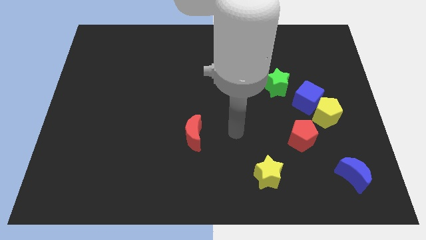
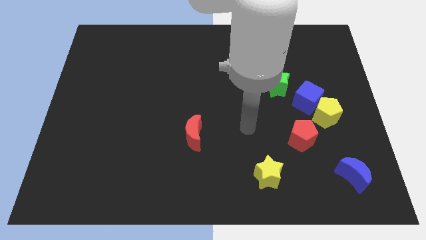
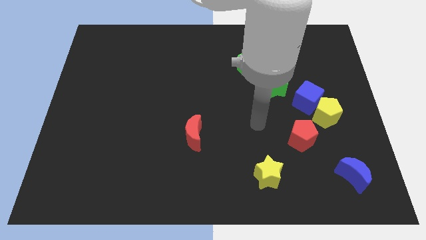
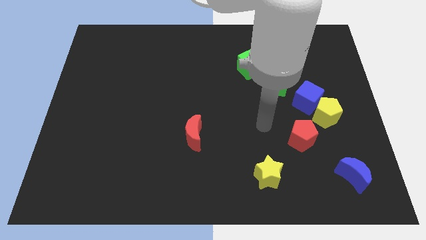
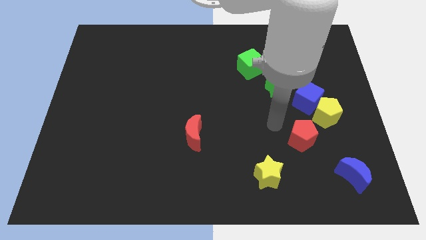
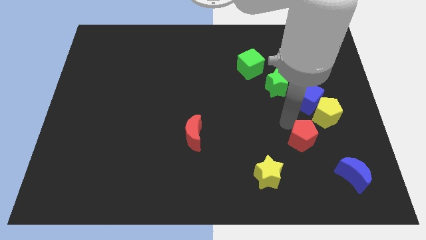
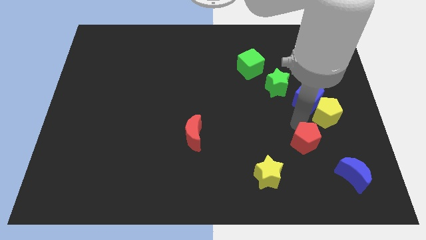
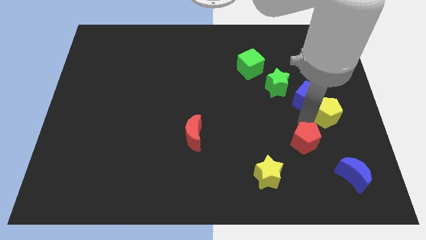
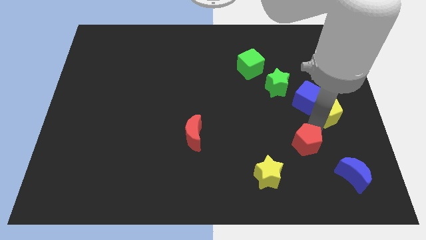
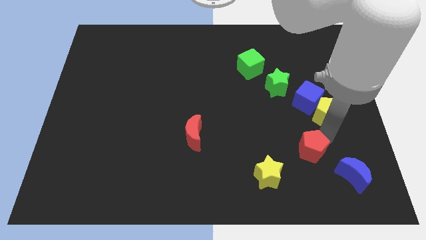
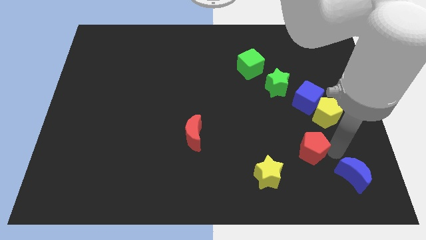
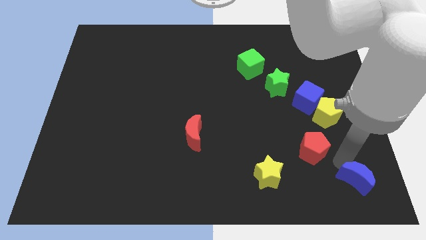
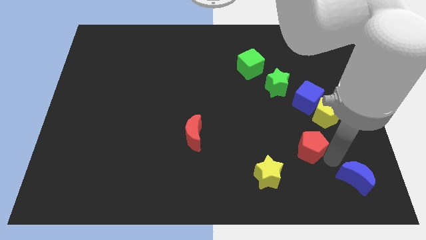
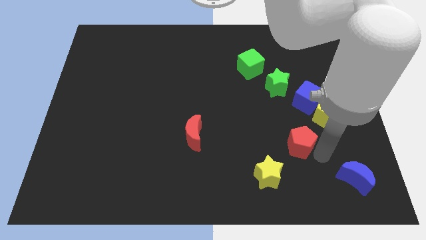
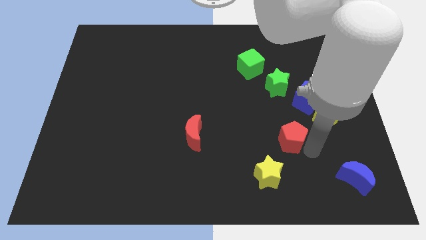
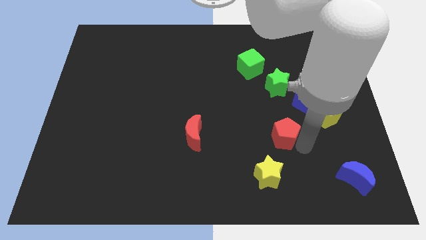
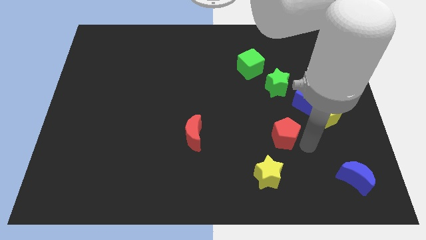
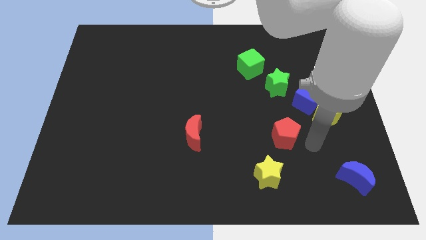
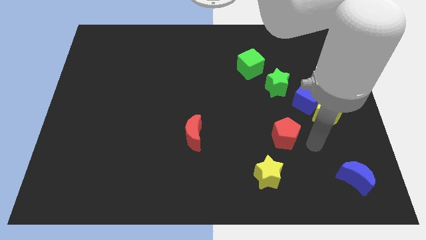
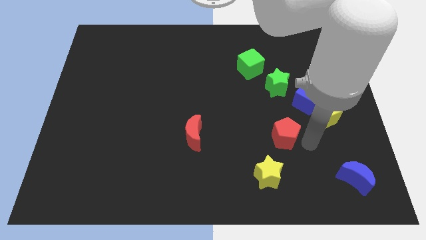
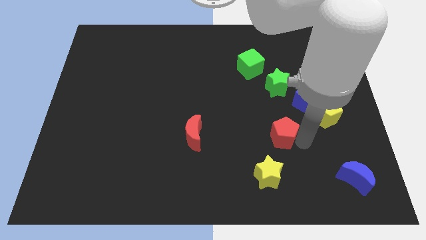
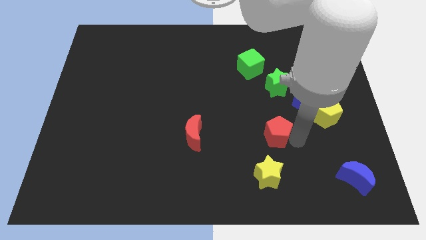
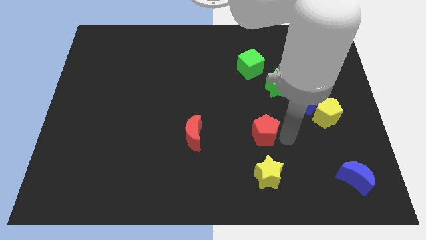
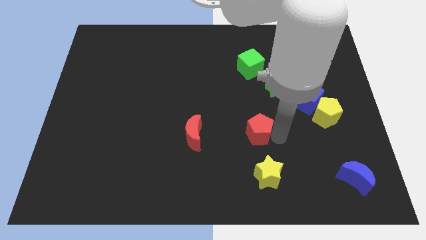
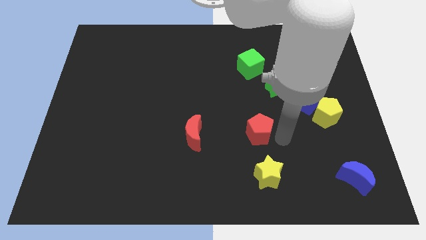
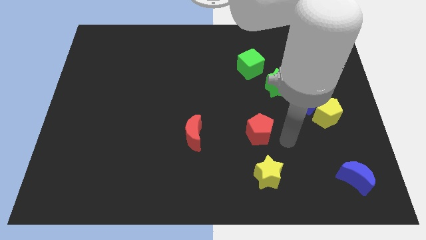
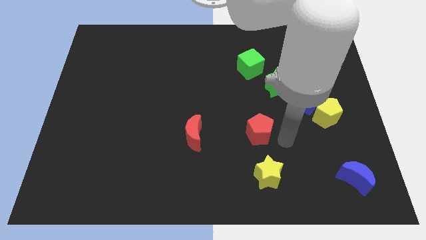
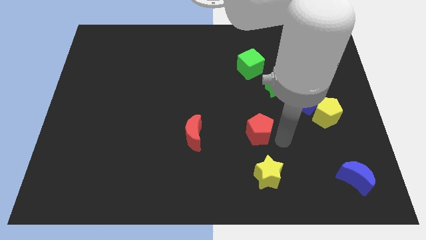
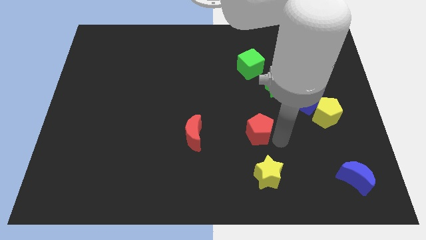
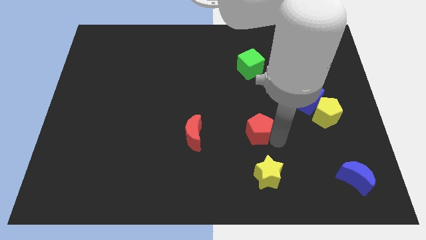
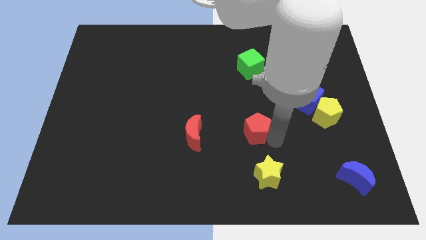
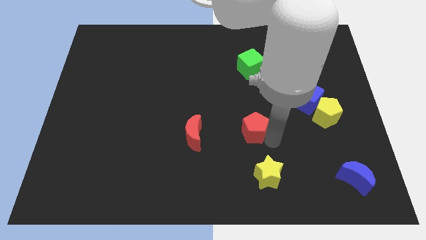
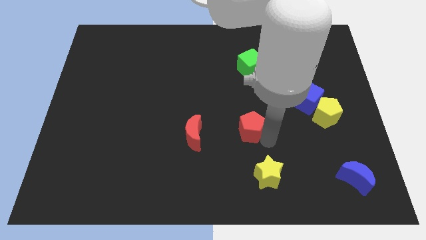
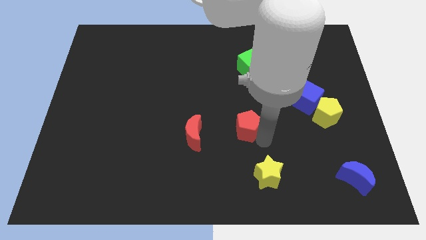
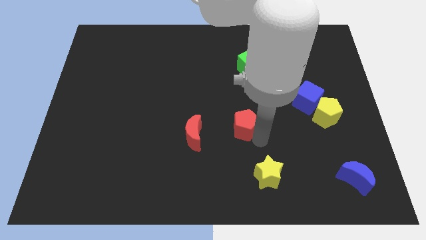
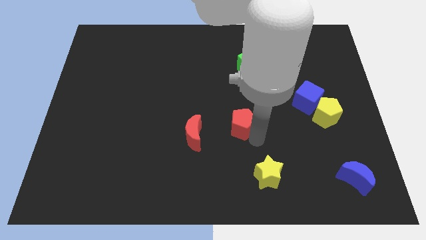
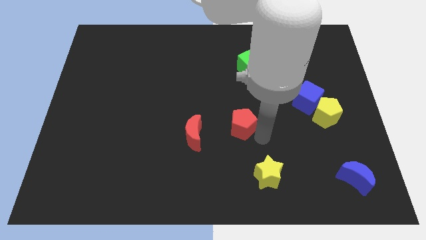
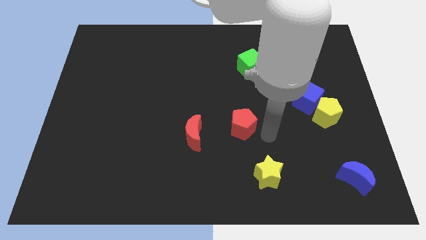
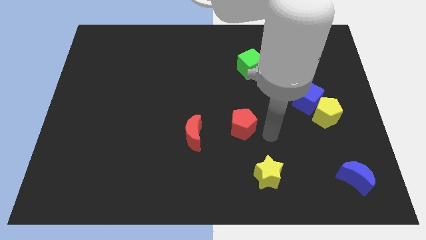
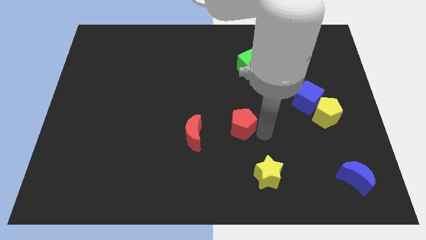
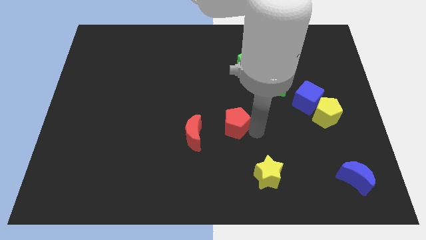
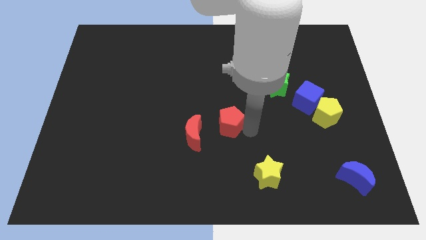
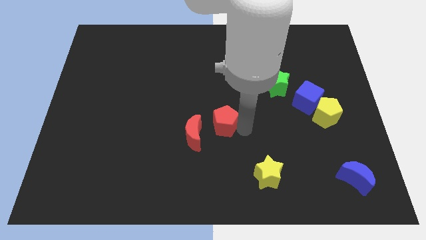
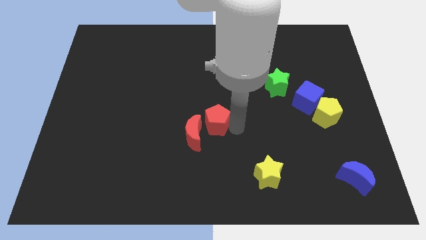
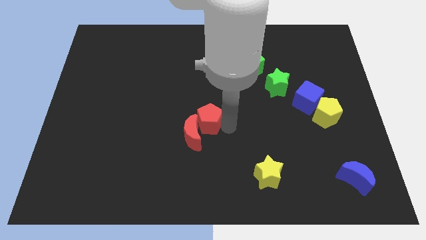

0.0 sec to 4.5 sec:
slide the red pentagon to the left

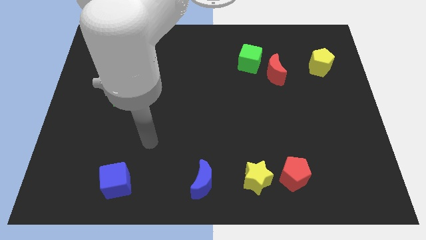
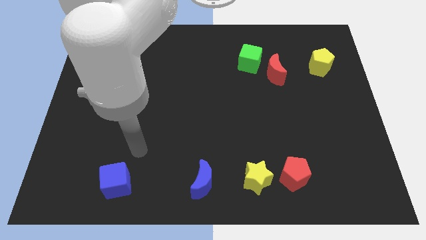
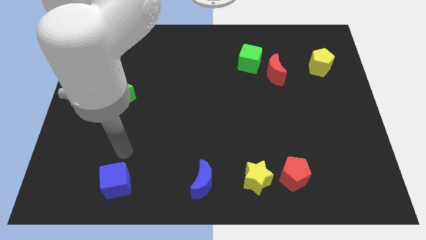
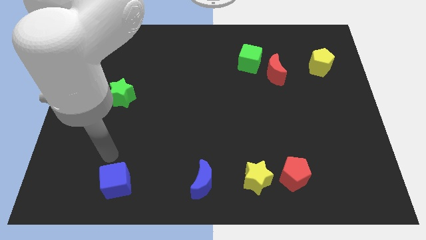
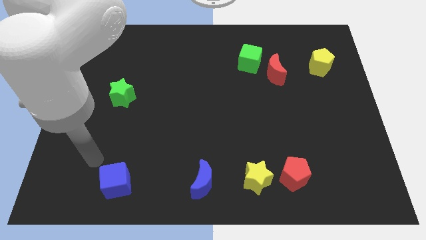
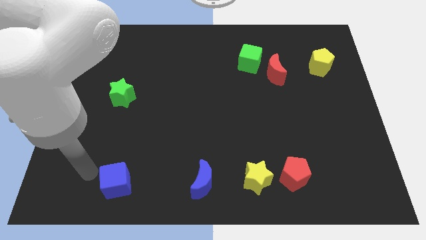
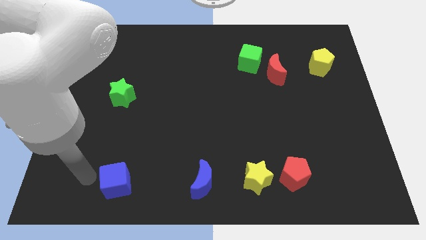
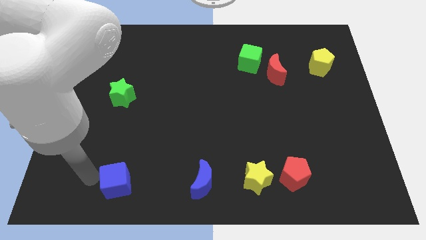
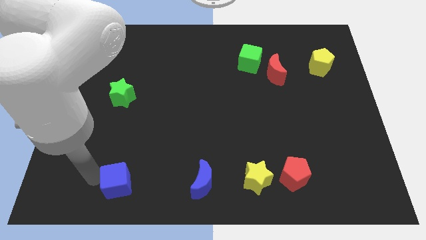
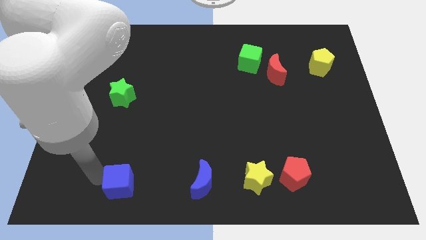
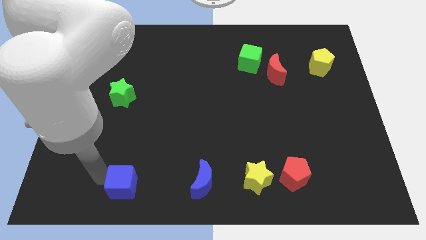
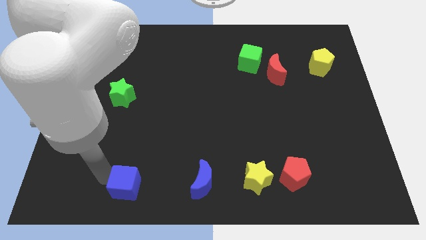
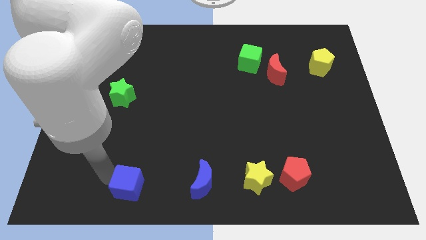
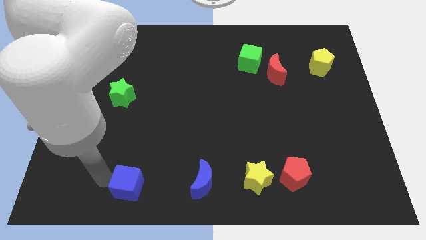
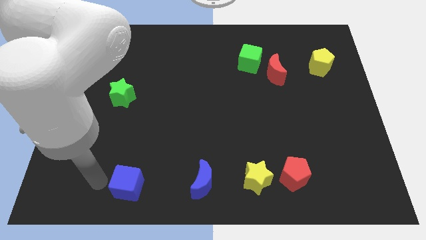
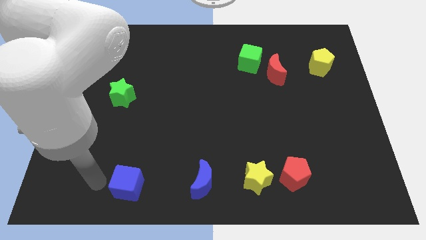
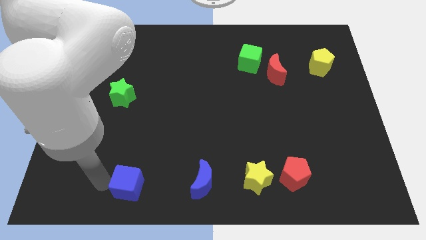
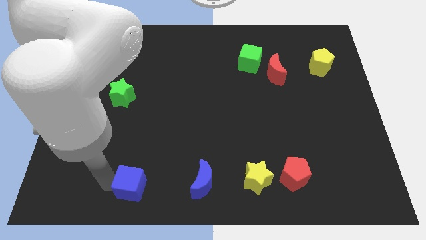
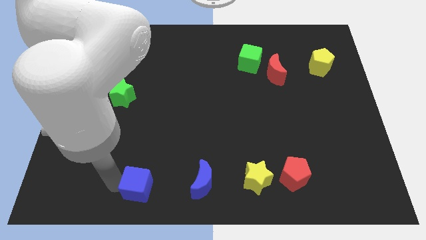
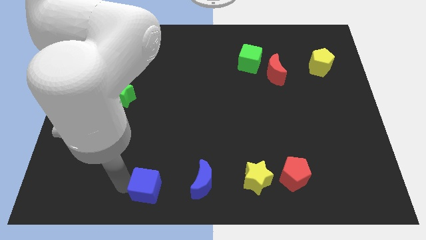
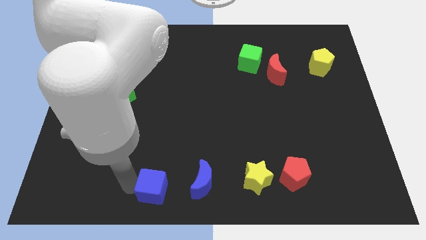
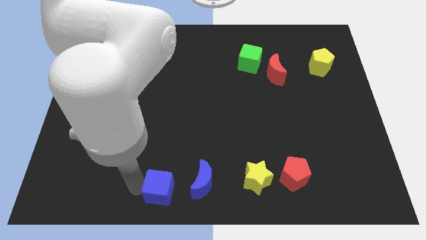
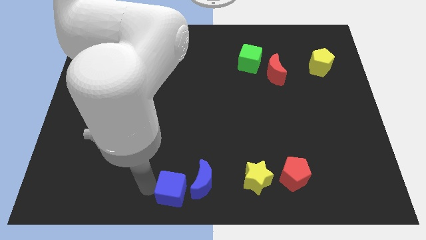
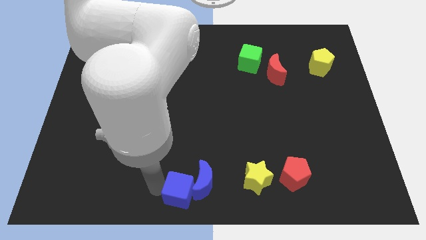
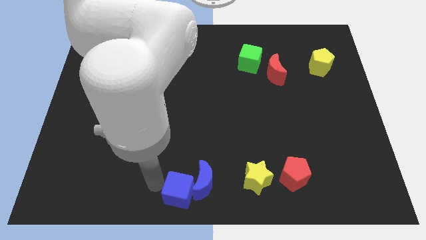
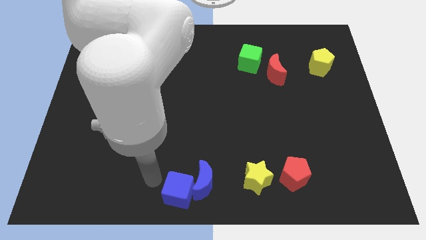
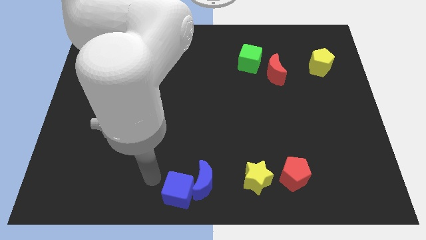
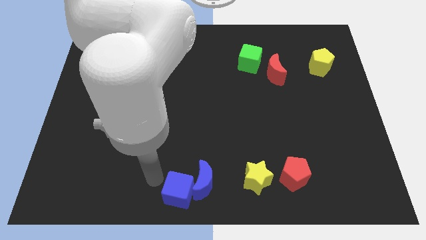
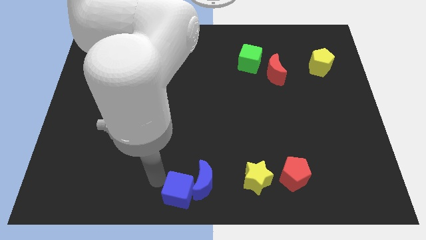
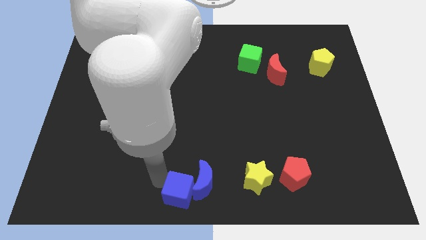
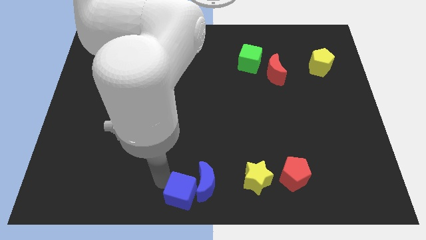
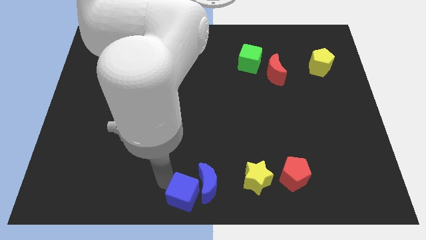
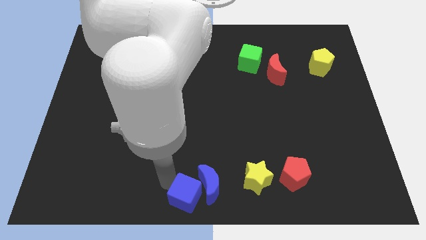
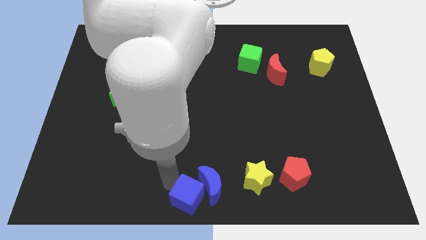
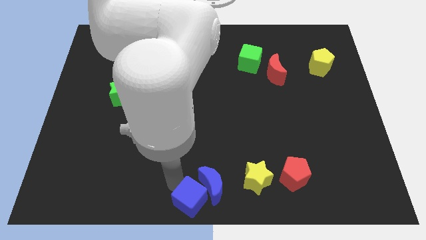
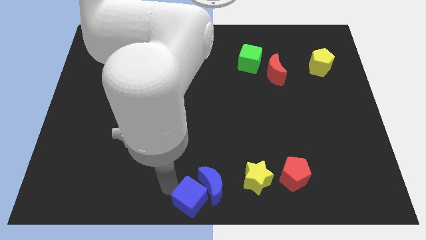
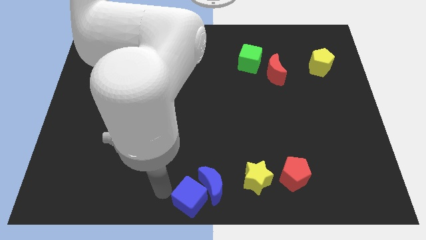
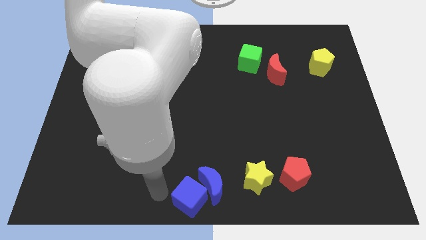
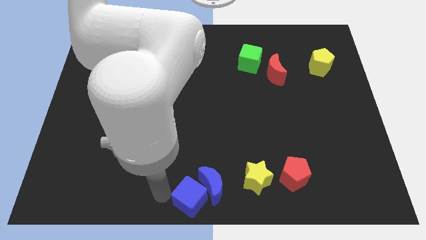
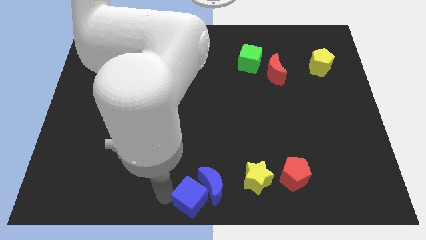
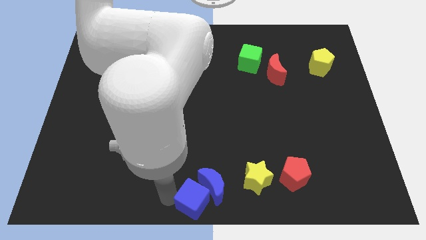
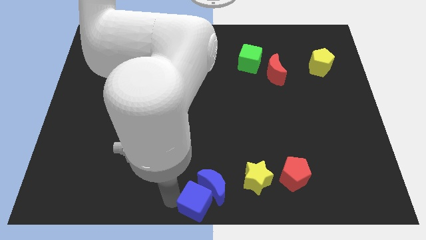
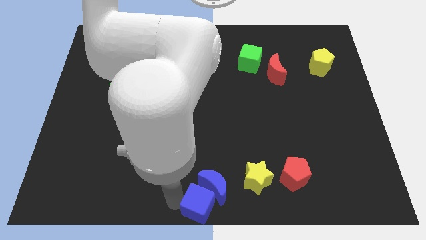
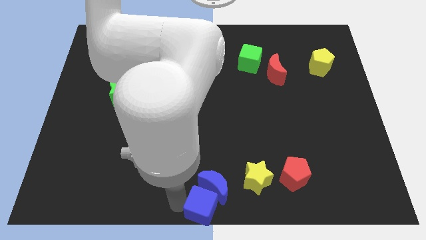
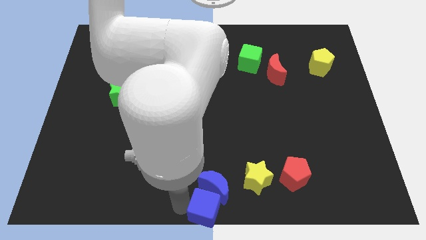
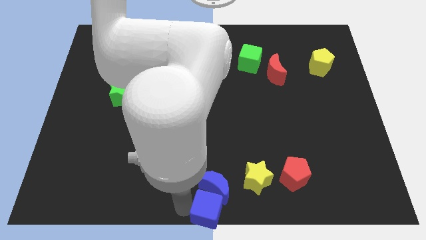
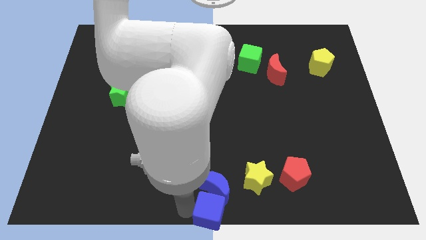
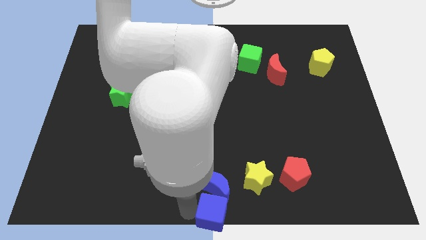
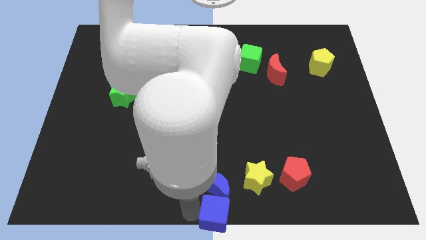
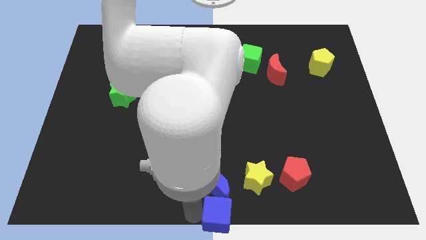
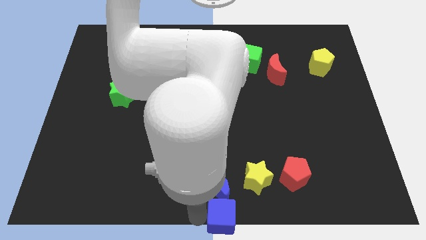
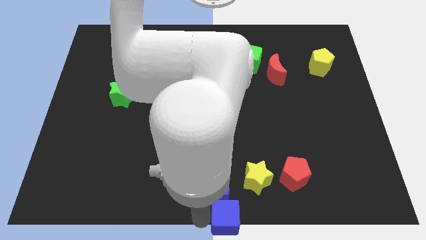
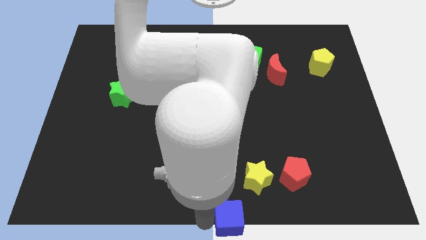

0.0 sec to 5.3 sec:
move the blue cube to the right
